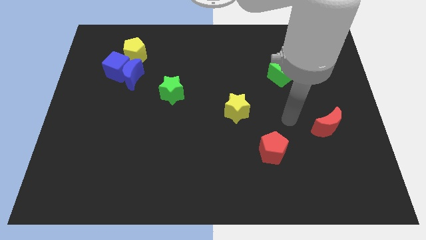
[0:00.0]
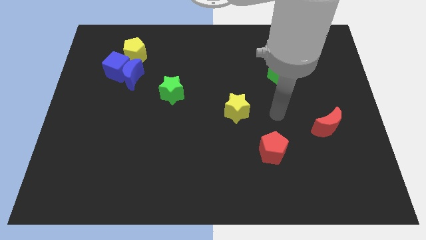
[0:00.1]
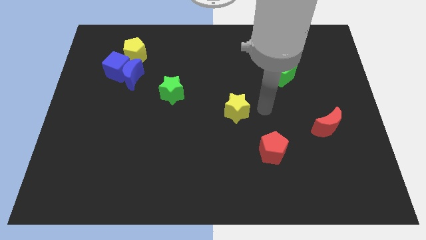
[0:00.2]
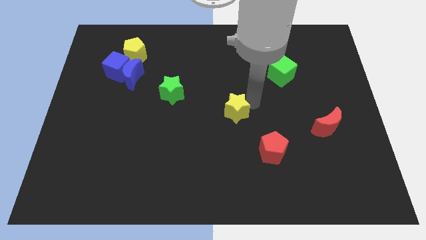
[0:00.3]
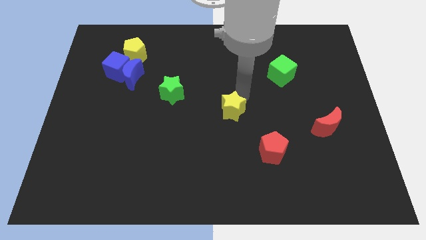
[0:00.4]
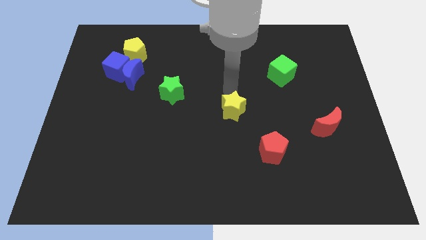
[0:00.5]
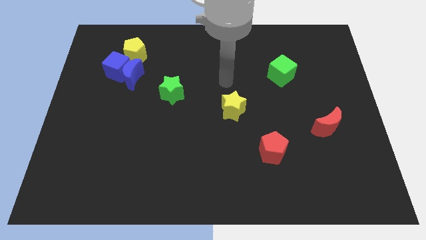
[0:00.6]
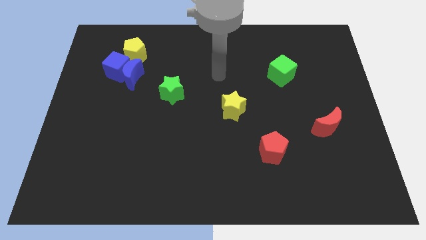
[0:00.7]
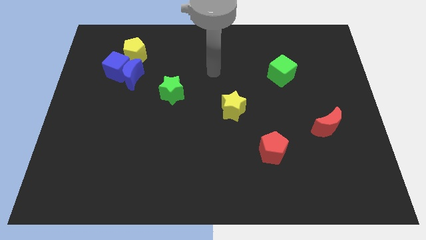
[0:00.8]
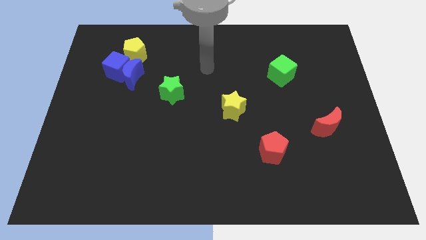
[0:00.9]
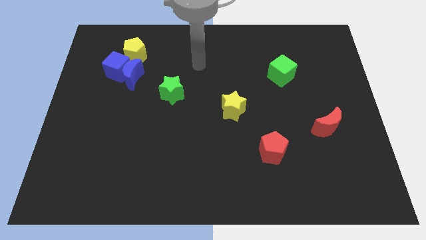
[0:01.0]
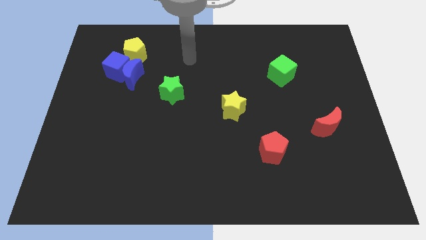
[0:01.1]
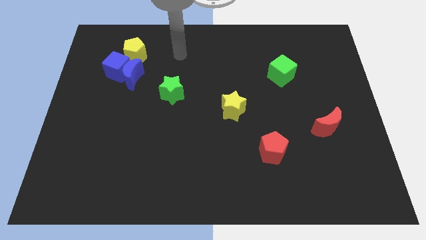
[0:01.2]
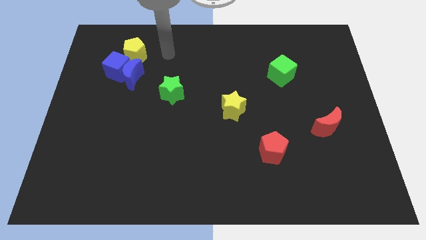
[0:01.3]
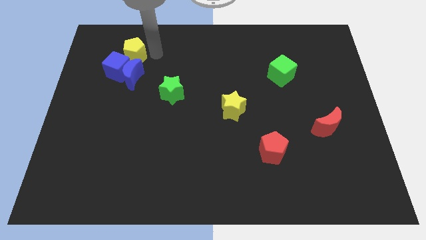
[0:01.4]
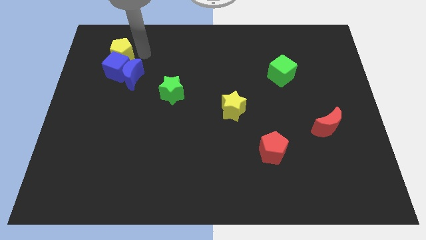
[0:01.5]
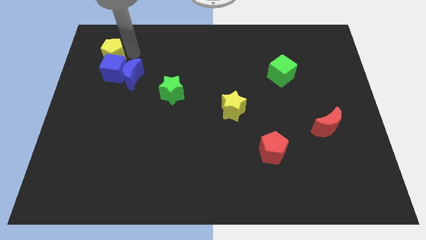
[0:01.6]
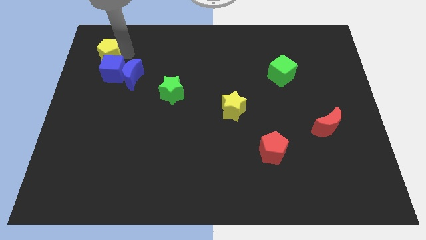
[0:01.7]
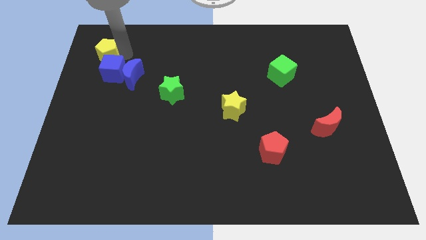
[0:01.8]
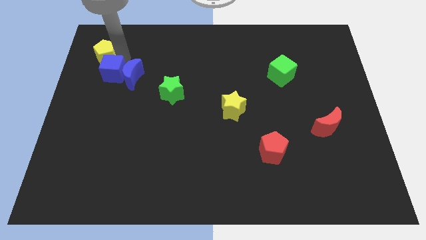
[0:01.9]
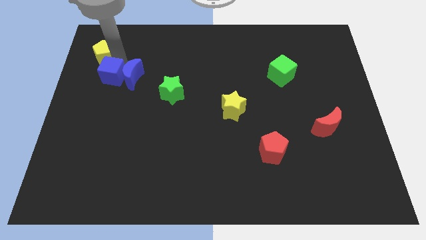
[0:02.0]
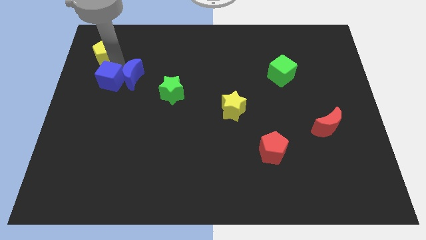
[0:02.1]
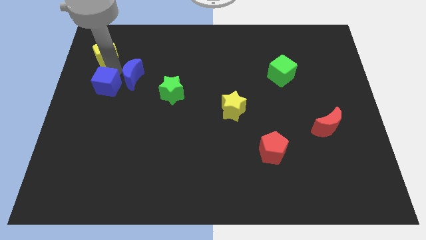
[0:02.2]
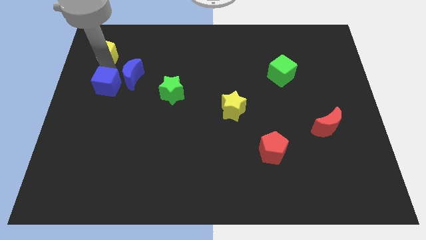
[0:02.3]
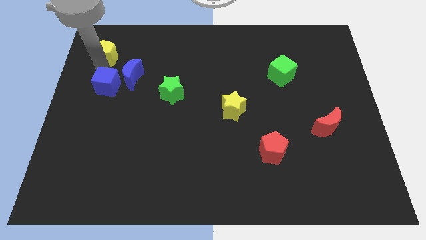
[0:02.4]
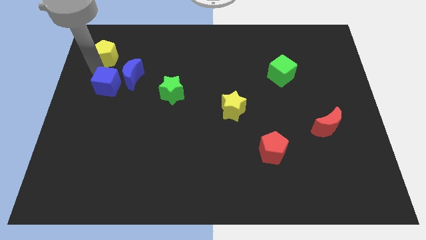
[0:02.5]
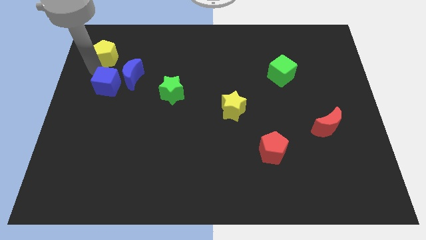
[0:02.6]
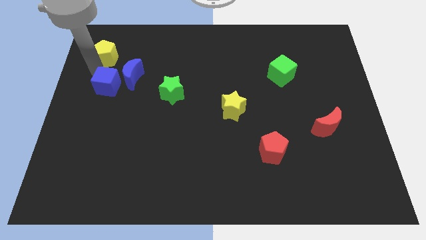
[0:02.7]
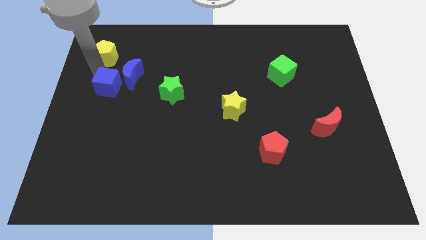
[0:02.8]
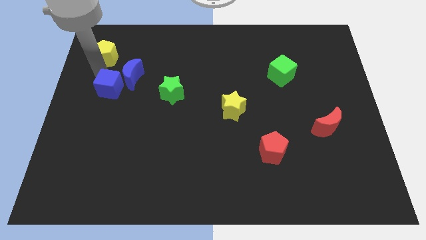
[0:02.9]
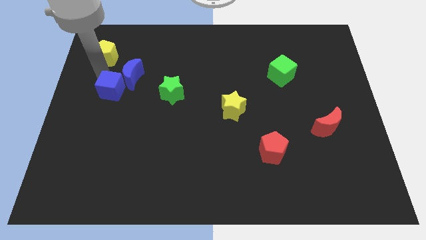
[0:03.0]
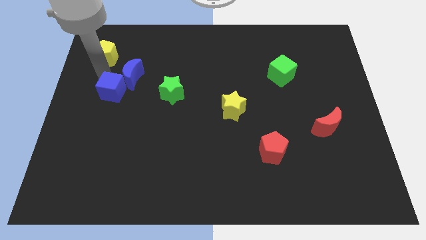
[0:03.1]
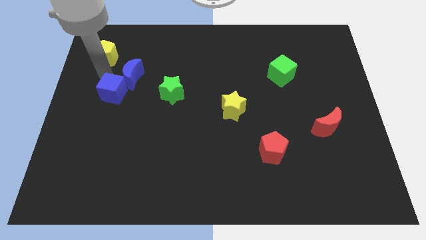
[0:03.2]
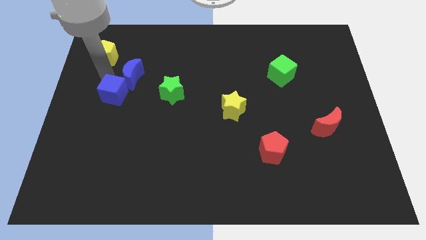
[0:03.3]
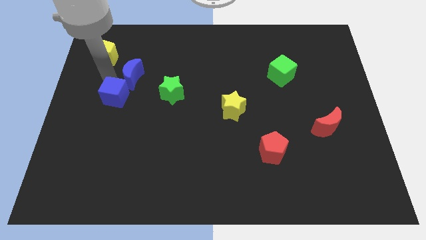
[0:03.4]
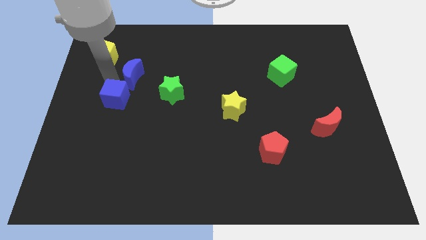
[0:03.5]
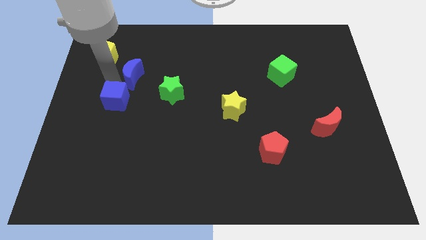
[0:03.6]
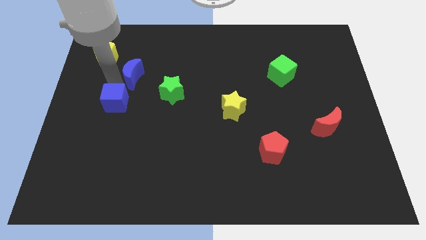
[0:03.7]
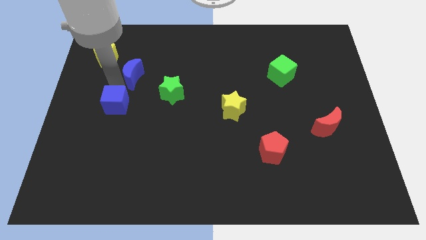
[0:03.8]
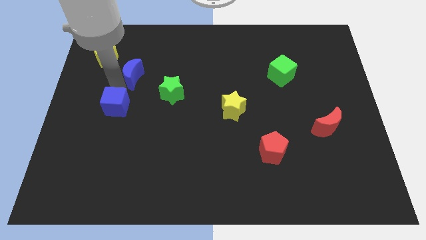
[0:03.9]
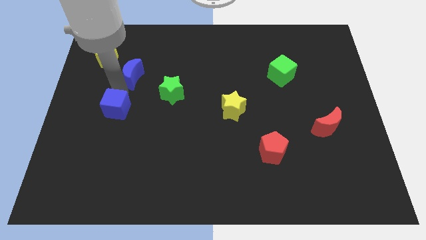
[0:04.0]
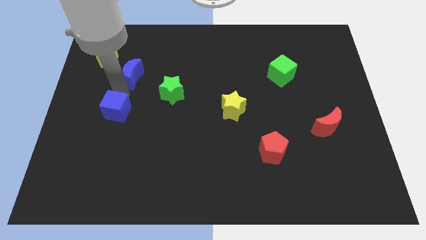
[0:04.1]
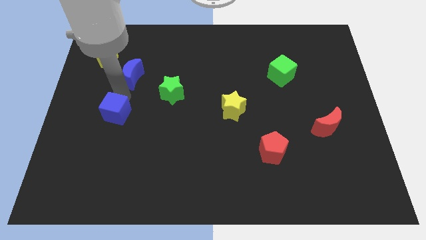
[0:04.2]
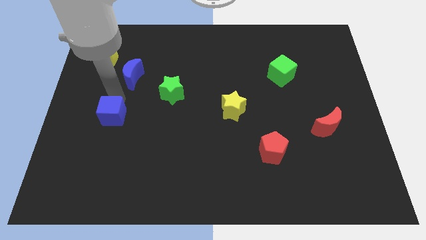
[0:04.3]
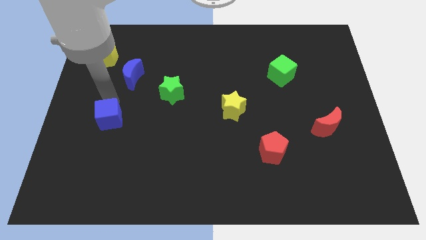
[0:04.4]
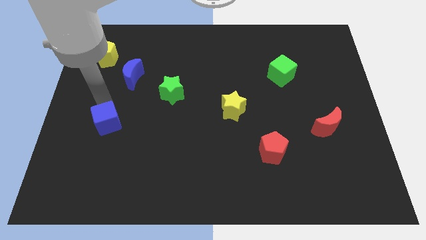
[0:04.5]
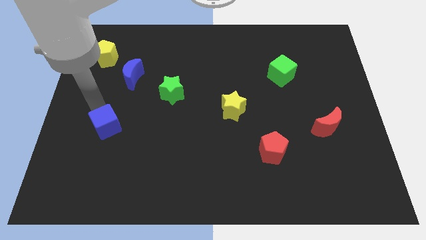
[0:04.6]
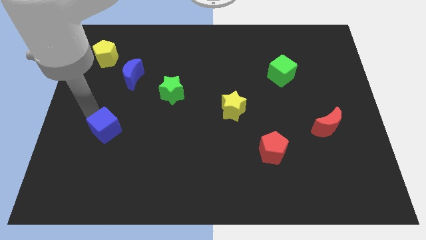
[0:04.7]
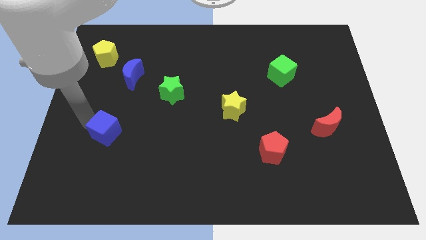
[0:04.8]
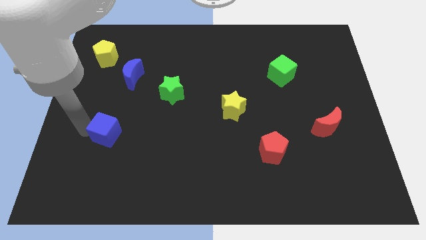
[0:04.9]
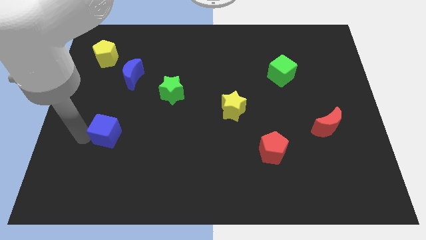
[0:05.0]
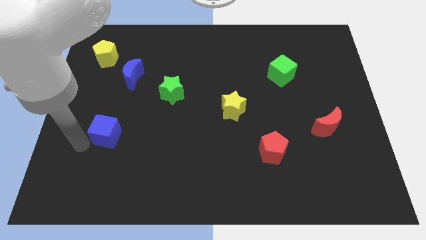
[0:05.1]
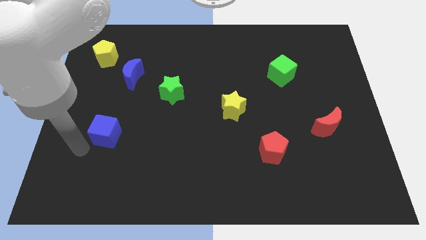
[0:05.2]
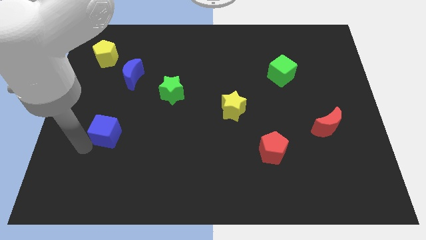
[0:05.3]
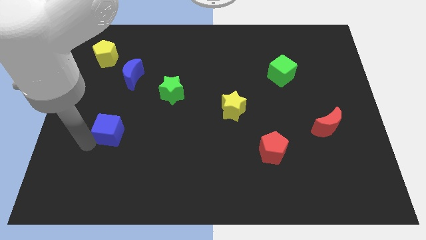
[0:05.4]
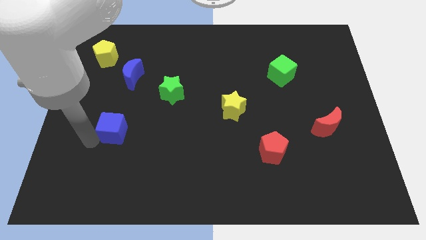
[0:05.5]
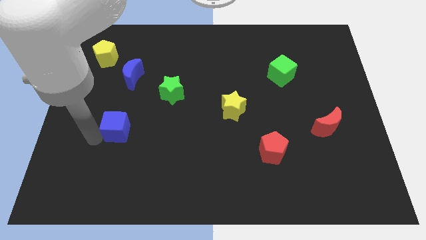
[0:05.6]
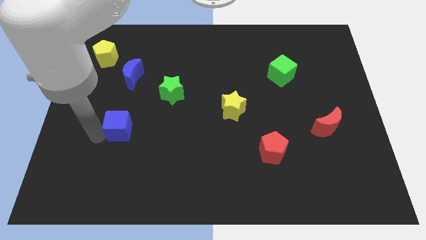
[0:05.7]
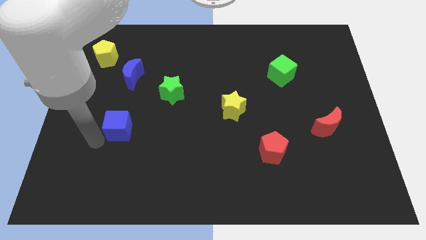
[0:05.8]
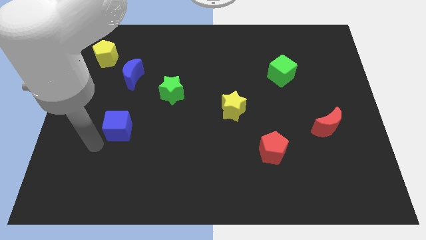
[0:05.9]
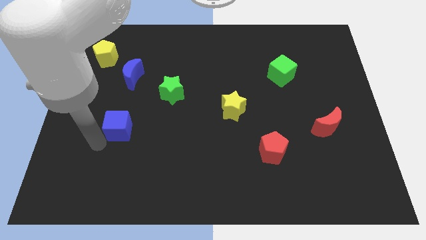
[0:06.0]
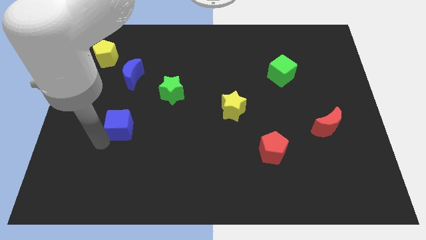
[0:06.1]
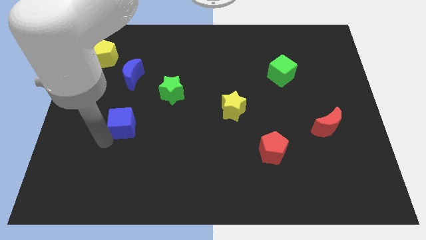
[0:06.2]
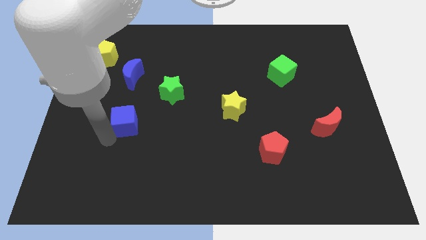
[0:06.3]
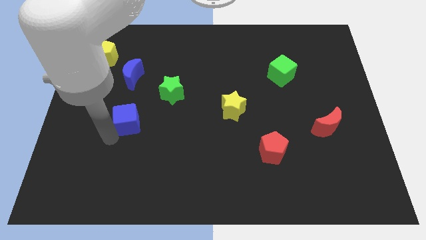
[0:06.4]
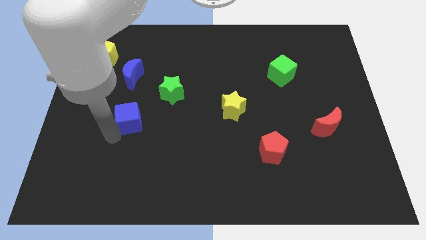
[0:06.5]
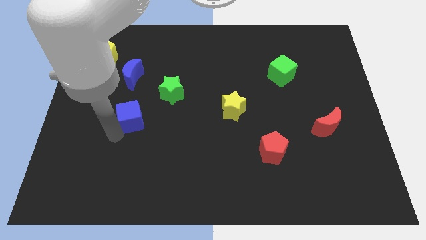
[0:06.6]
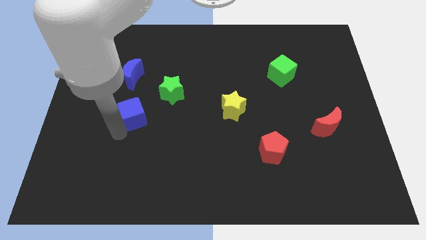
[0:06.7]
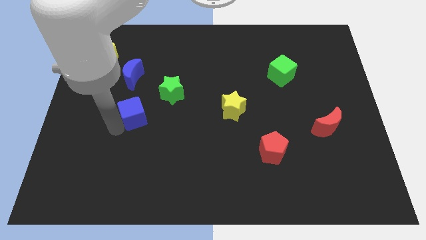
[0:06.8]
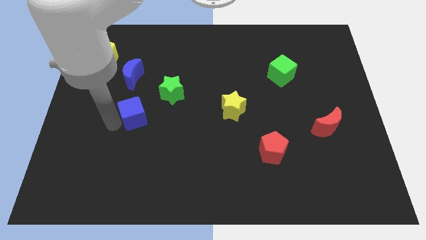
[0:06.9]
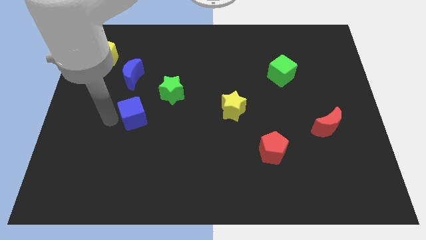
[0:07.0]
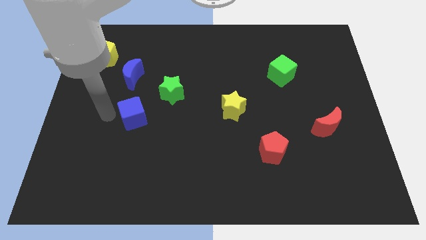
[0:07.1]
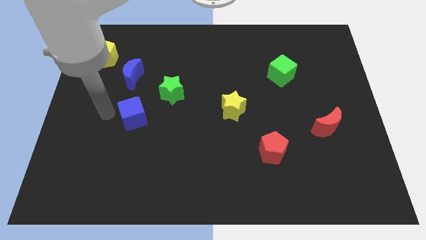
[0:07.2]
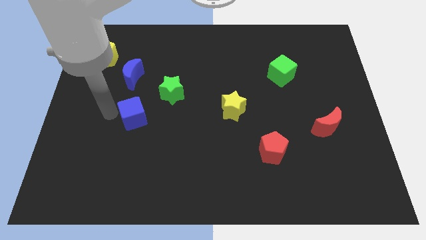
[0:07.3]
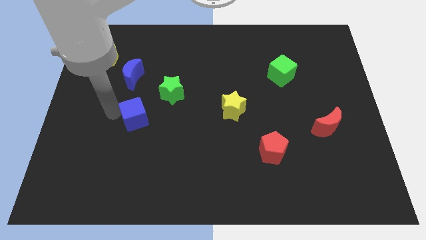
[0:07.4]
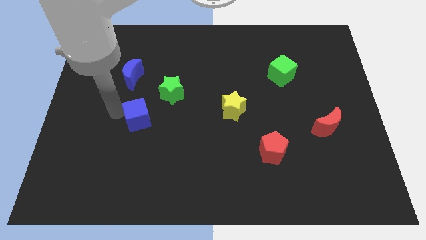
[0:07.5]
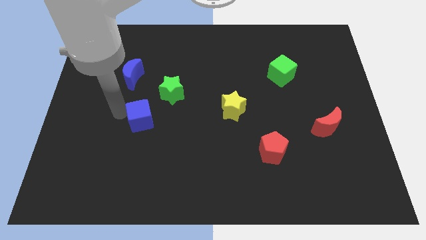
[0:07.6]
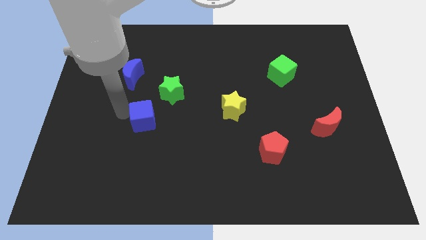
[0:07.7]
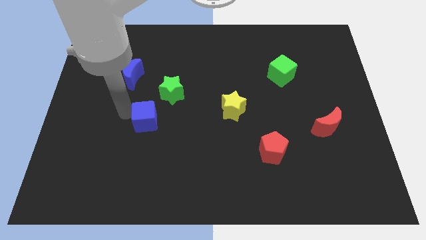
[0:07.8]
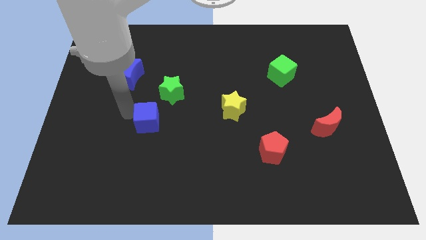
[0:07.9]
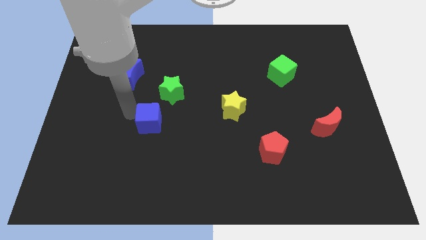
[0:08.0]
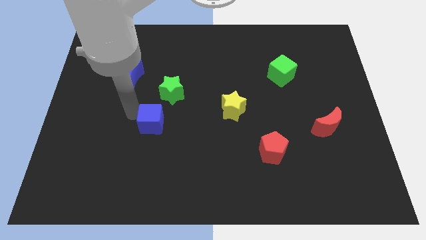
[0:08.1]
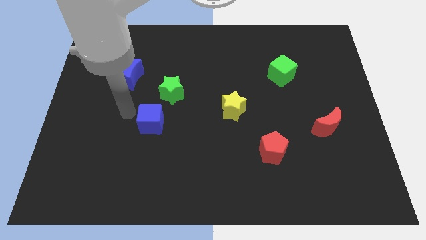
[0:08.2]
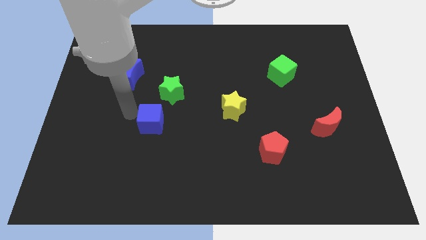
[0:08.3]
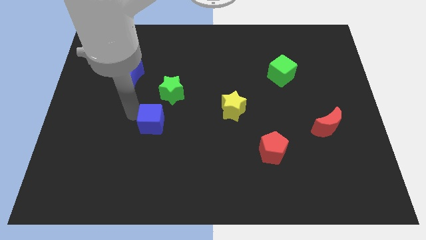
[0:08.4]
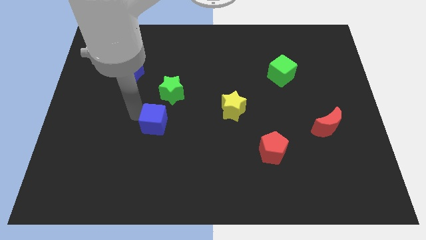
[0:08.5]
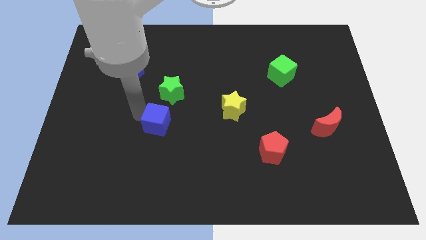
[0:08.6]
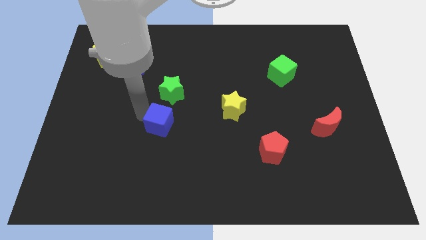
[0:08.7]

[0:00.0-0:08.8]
move the blue cube diagonally down and right
